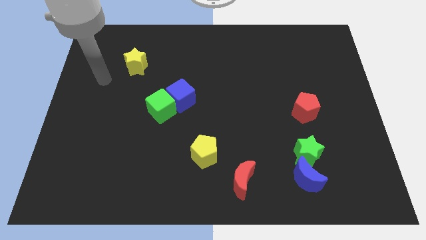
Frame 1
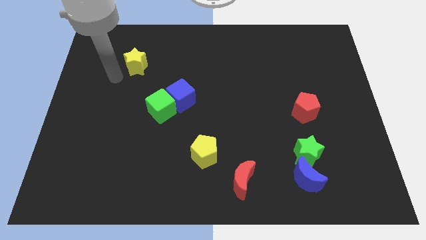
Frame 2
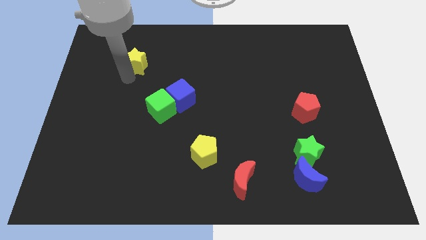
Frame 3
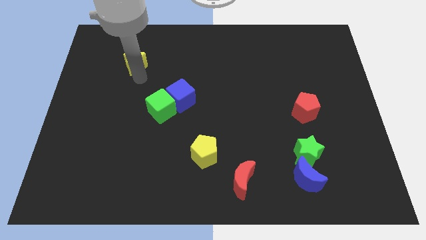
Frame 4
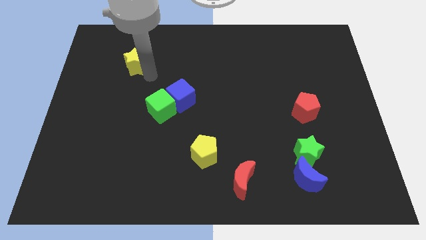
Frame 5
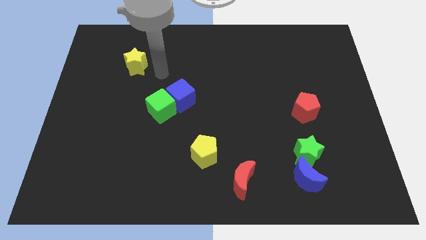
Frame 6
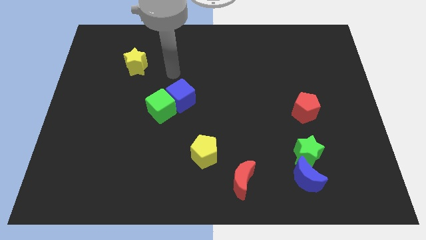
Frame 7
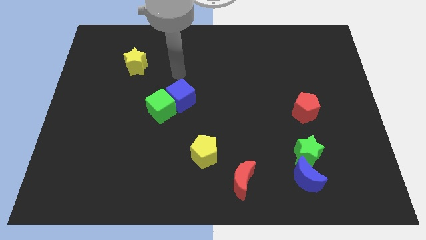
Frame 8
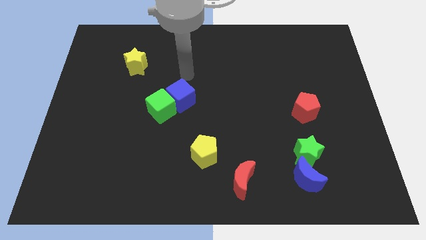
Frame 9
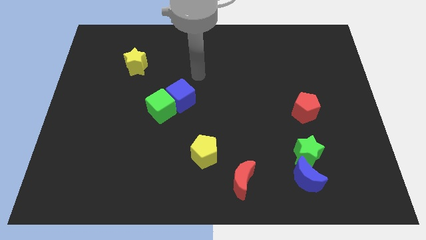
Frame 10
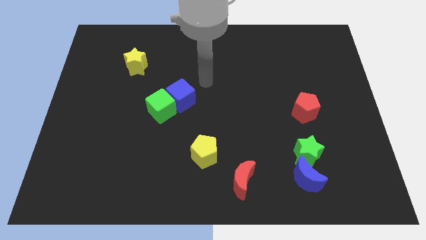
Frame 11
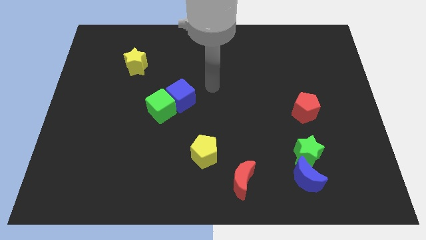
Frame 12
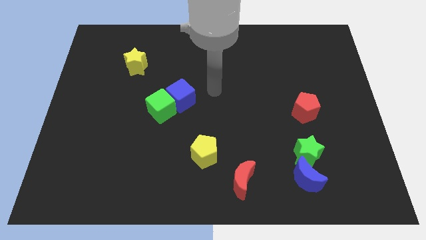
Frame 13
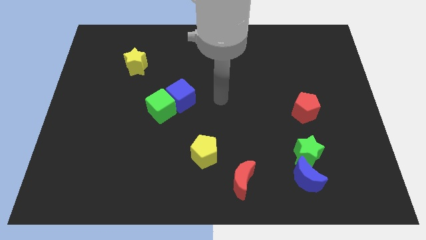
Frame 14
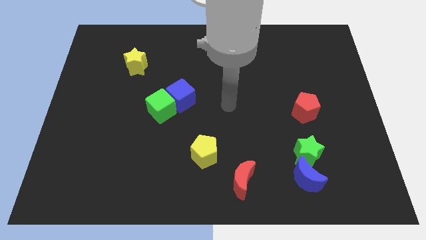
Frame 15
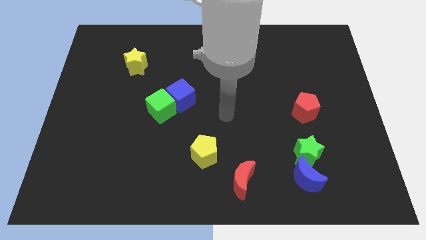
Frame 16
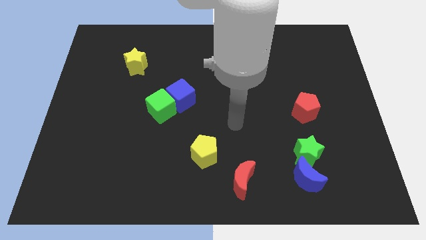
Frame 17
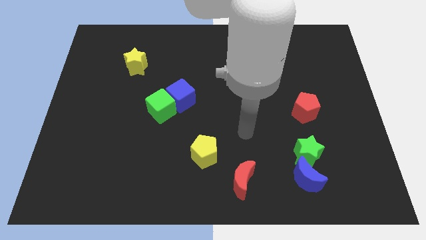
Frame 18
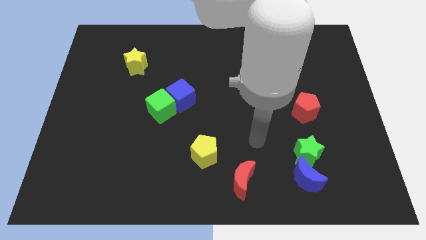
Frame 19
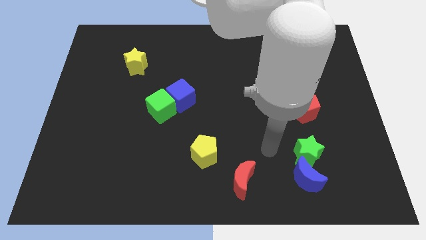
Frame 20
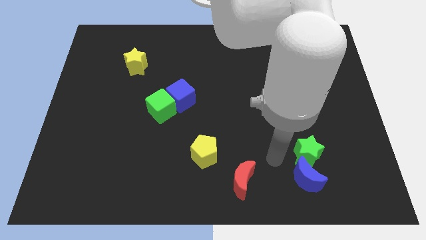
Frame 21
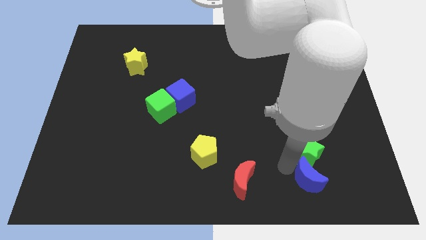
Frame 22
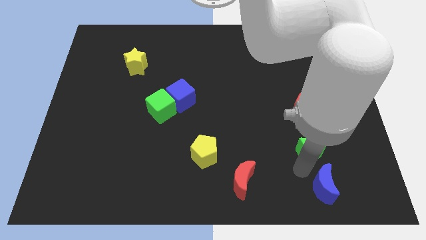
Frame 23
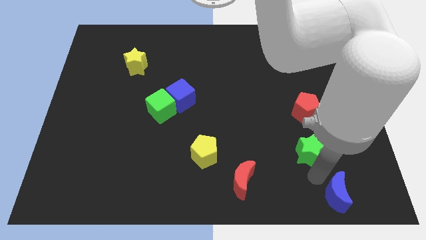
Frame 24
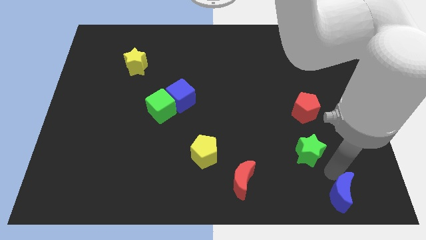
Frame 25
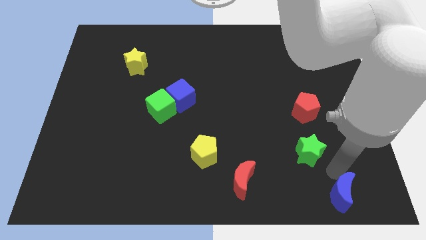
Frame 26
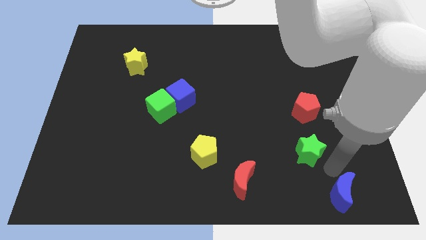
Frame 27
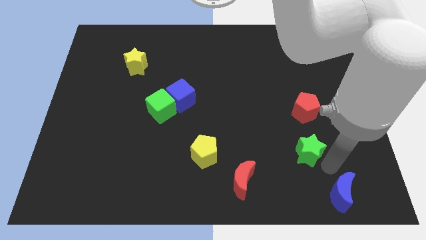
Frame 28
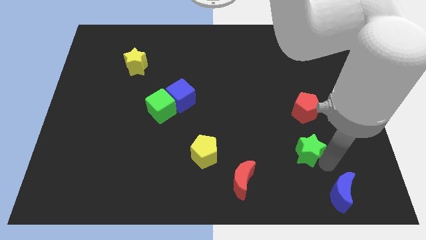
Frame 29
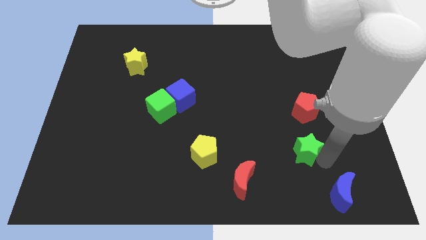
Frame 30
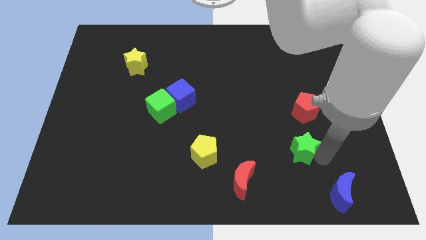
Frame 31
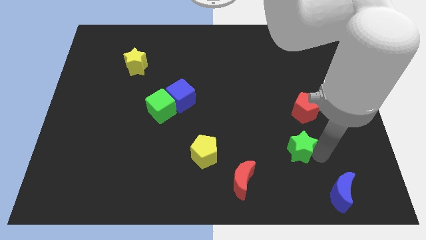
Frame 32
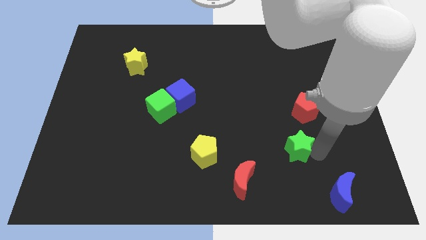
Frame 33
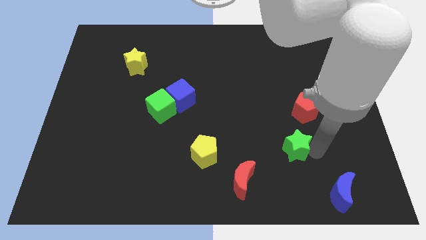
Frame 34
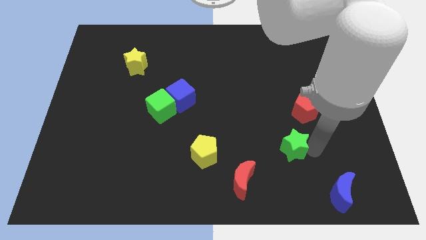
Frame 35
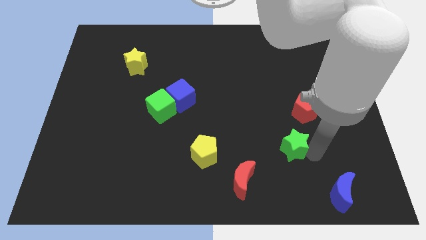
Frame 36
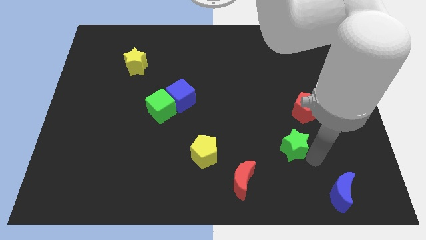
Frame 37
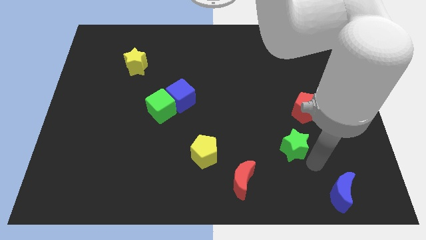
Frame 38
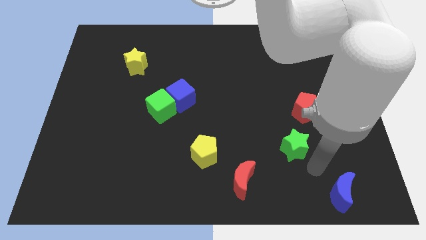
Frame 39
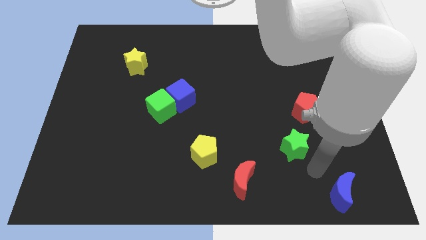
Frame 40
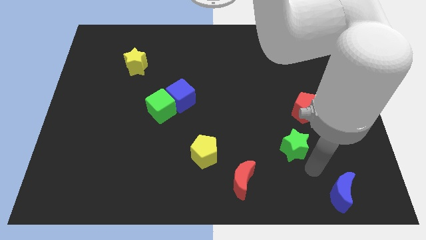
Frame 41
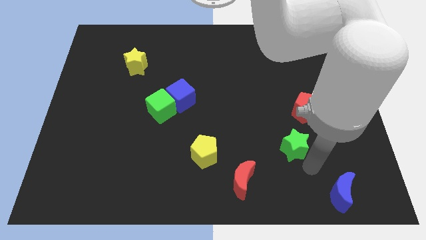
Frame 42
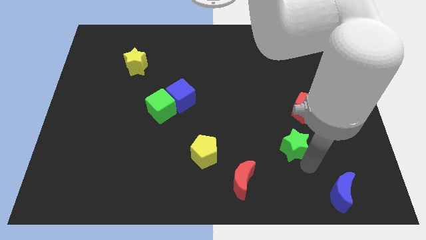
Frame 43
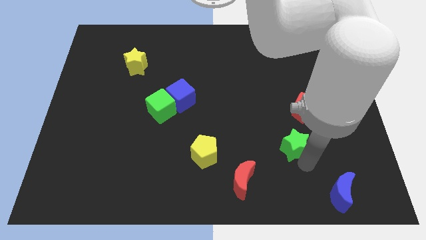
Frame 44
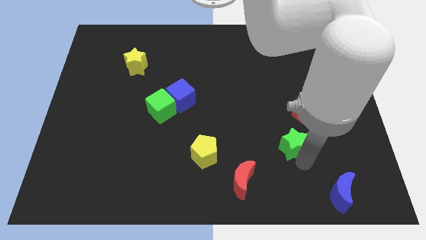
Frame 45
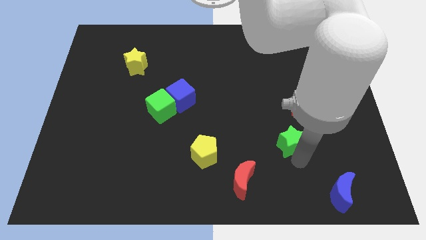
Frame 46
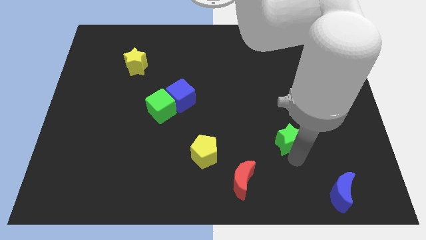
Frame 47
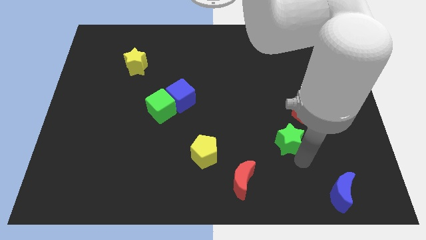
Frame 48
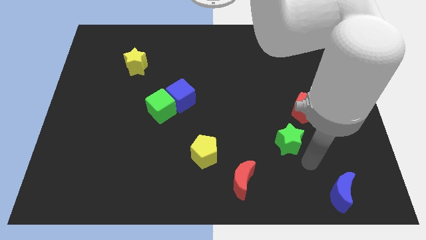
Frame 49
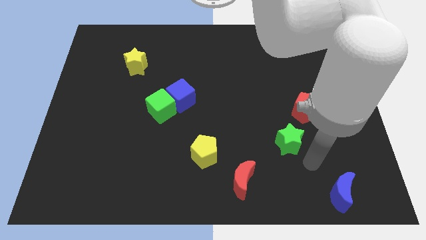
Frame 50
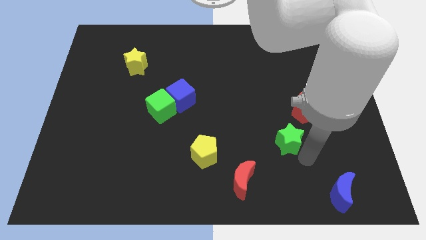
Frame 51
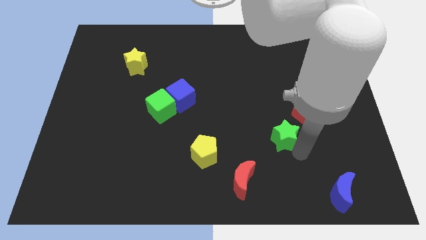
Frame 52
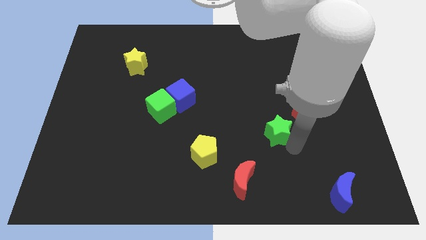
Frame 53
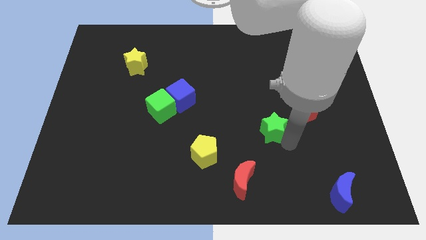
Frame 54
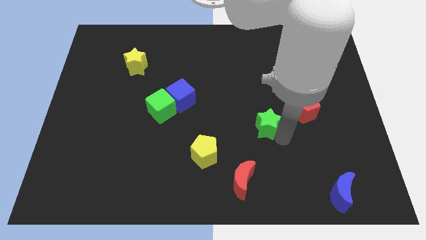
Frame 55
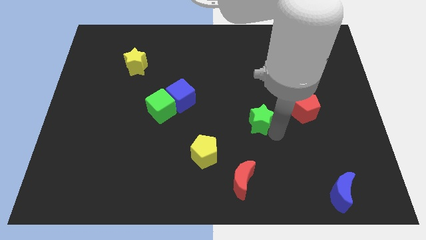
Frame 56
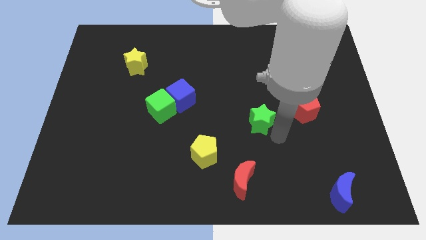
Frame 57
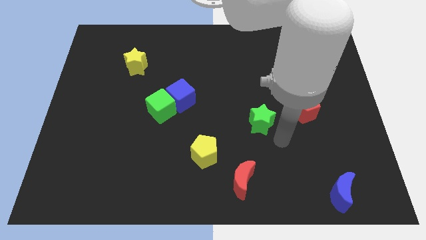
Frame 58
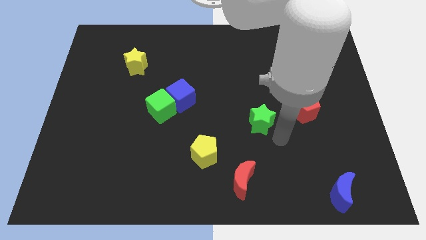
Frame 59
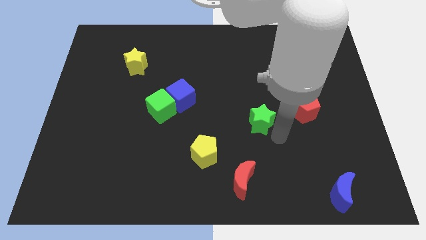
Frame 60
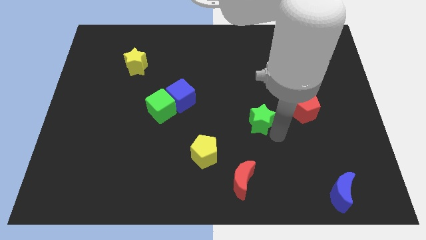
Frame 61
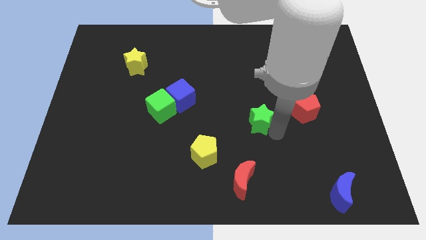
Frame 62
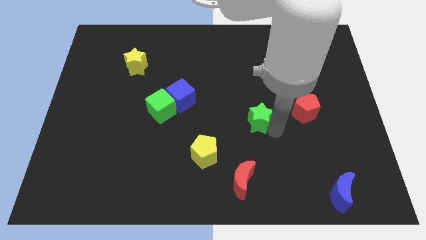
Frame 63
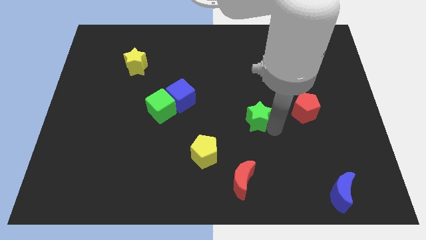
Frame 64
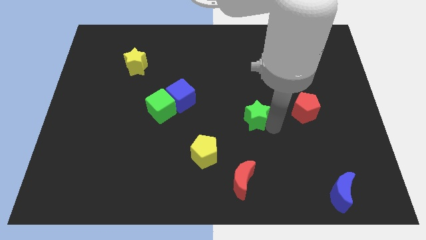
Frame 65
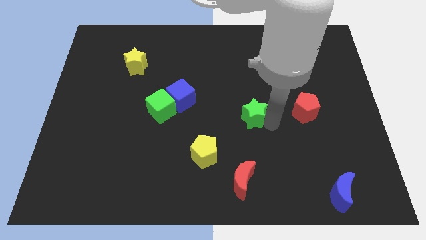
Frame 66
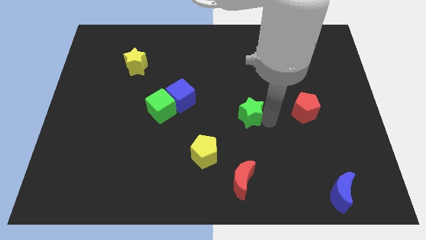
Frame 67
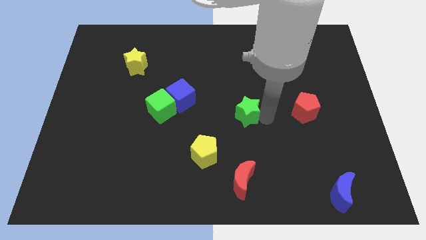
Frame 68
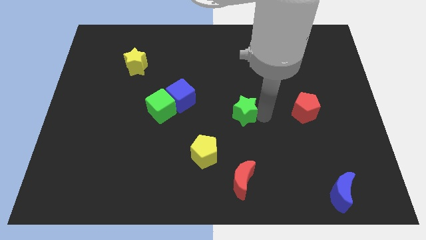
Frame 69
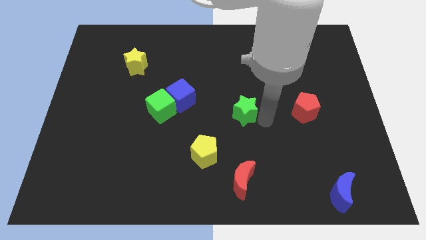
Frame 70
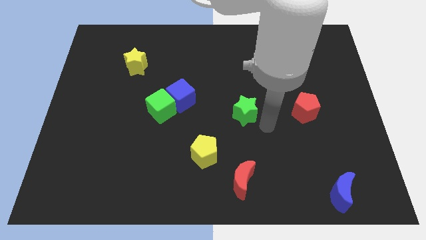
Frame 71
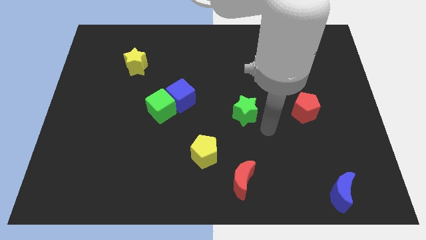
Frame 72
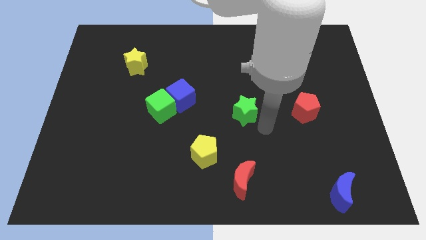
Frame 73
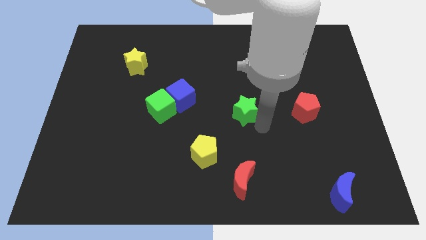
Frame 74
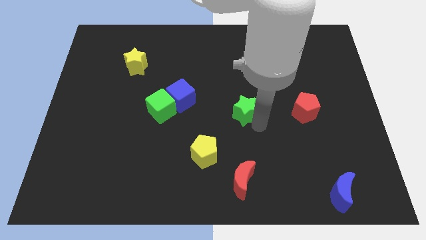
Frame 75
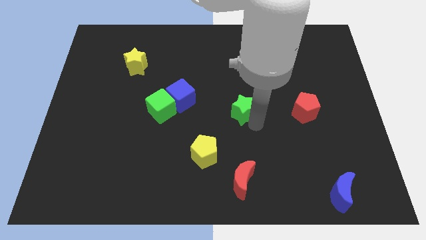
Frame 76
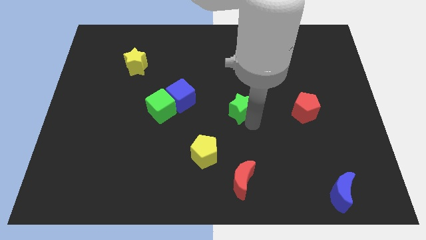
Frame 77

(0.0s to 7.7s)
push the green star to the right side of the blue cube
